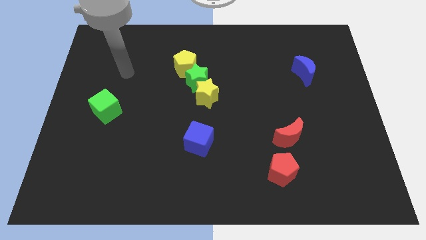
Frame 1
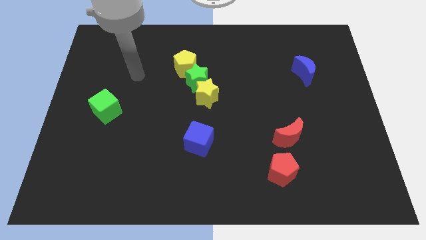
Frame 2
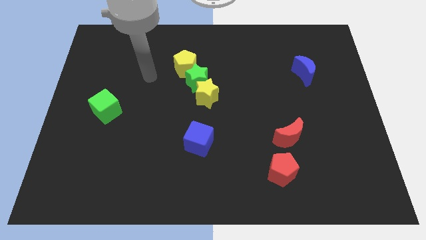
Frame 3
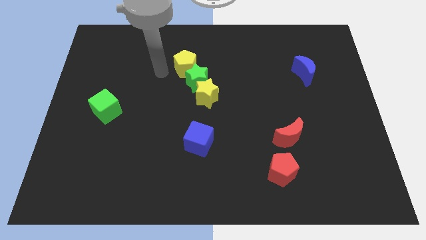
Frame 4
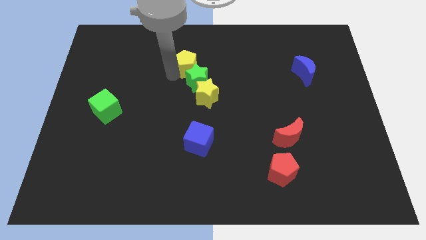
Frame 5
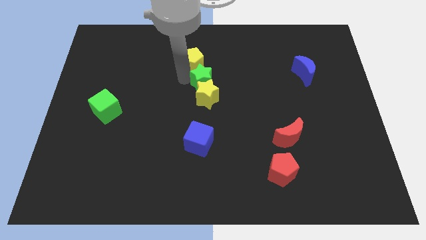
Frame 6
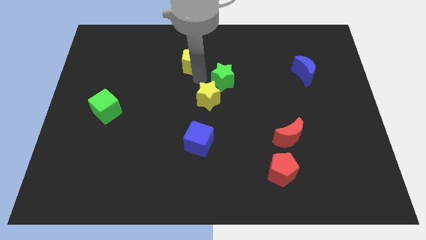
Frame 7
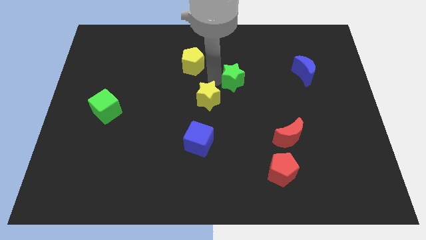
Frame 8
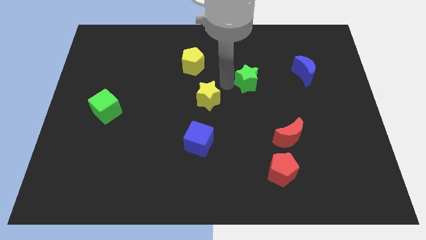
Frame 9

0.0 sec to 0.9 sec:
move the yellow star away from the green star

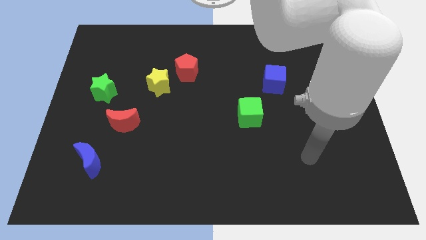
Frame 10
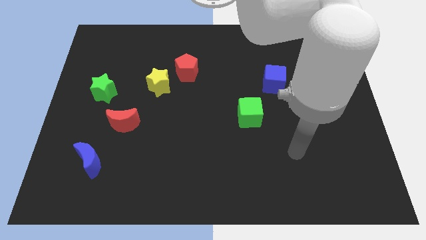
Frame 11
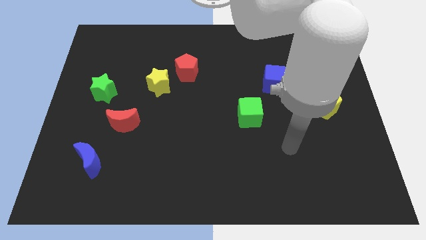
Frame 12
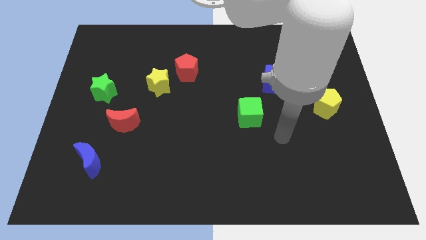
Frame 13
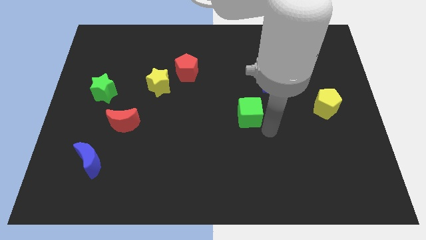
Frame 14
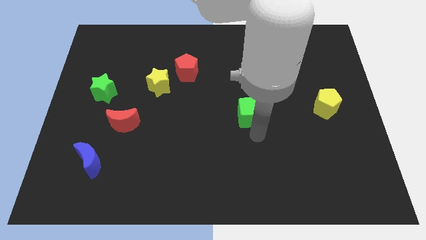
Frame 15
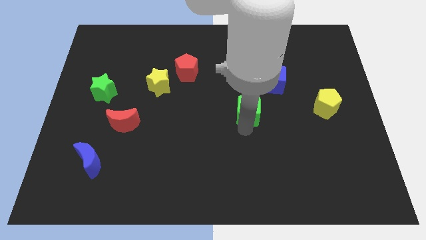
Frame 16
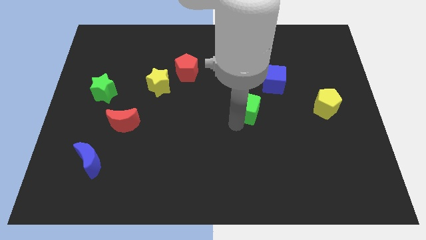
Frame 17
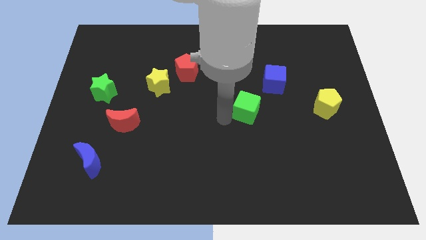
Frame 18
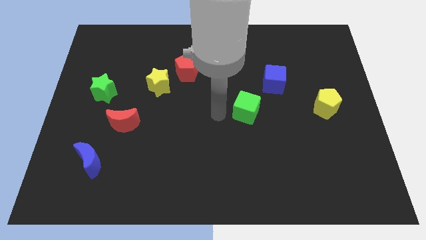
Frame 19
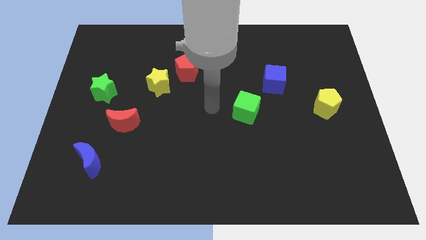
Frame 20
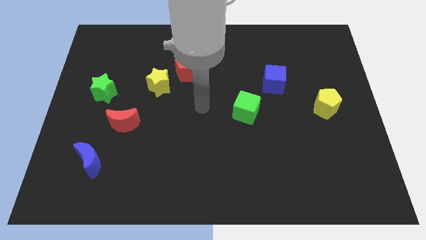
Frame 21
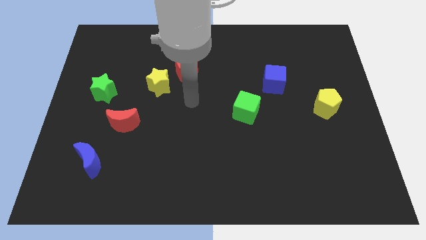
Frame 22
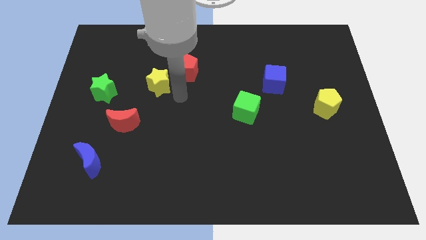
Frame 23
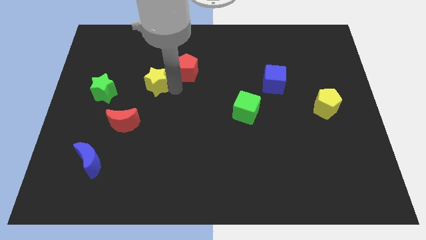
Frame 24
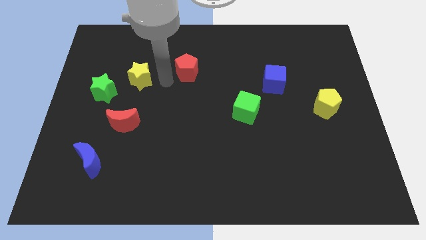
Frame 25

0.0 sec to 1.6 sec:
pull the red pentagon apart from the yellow star

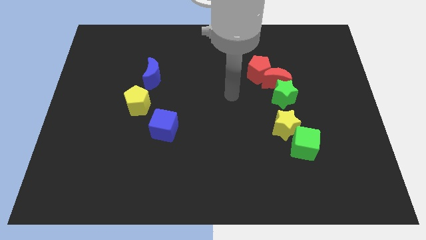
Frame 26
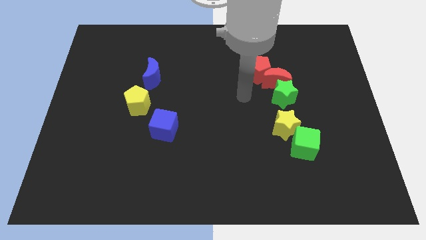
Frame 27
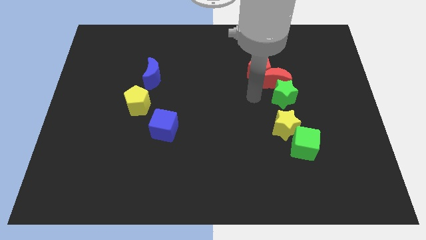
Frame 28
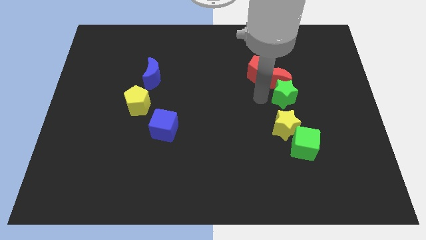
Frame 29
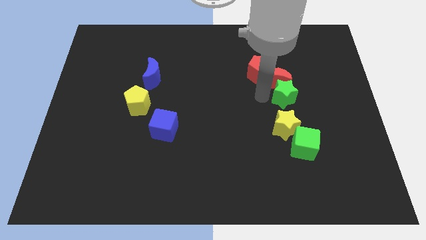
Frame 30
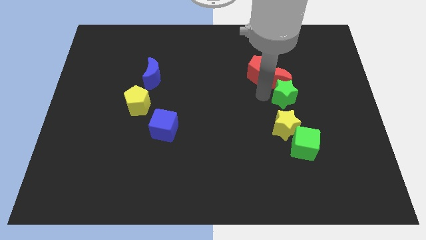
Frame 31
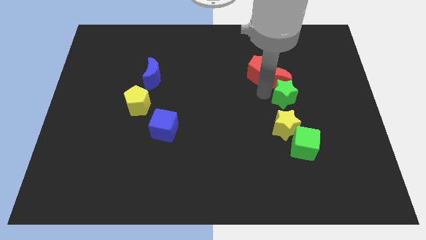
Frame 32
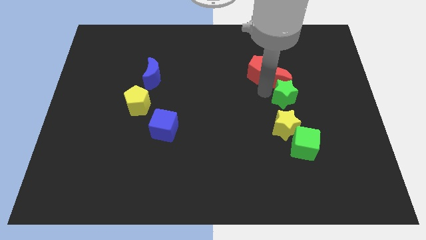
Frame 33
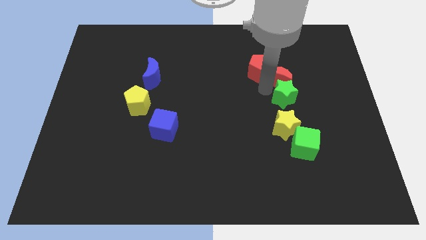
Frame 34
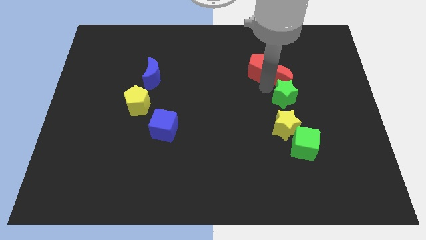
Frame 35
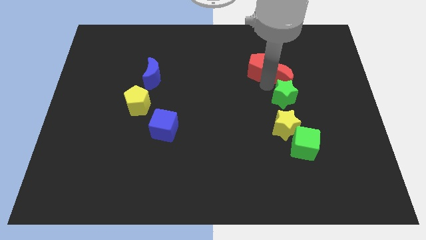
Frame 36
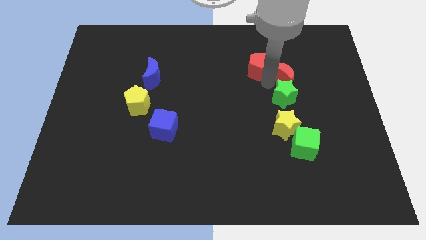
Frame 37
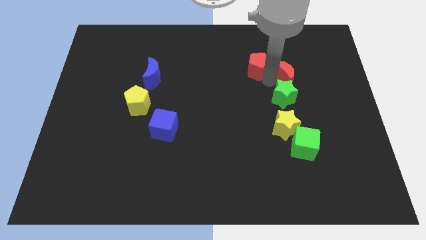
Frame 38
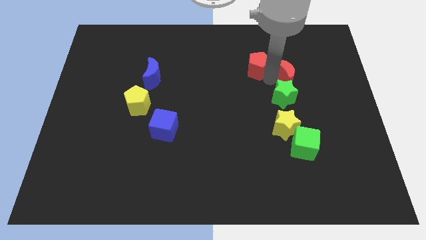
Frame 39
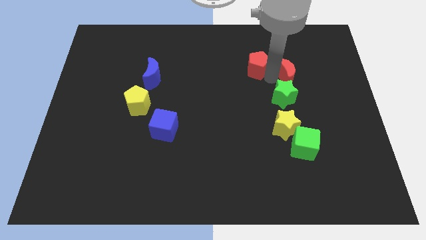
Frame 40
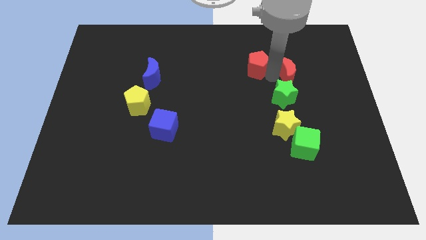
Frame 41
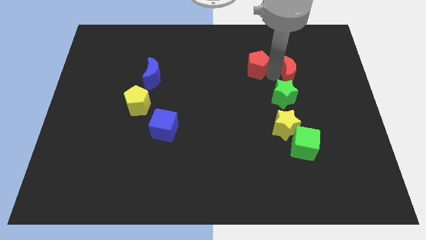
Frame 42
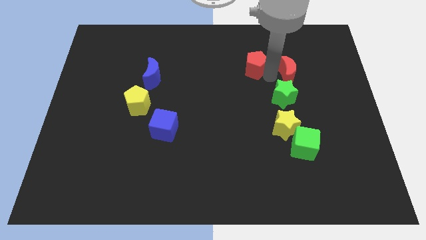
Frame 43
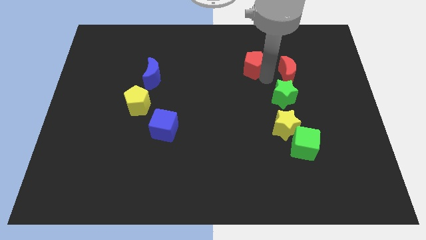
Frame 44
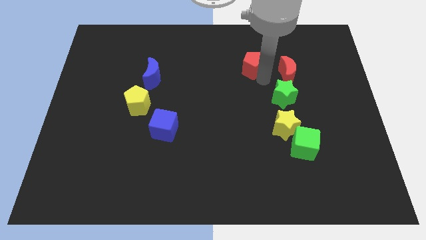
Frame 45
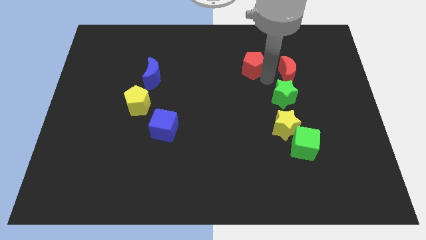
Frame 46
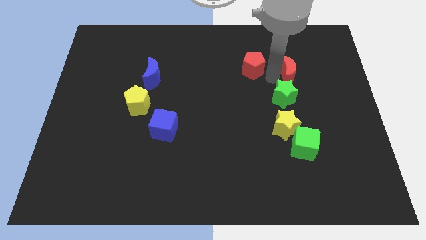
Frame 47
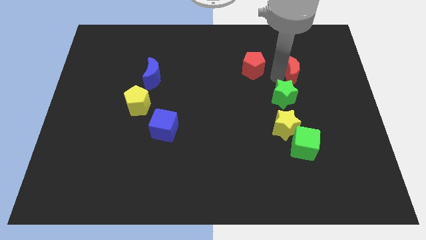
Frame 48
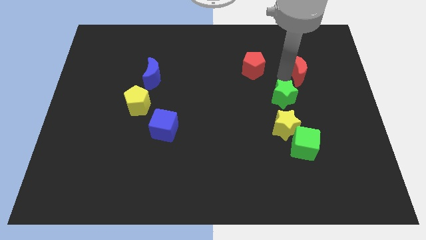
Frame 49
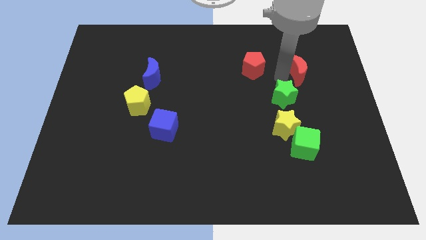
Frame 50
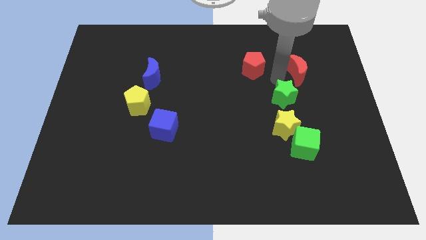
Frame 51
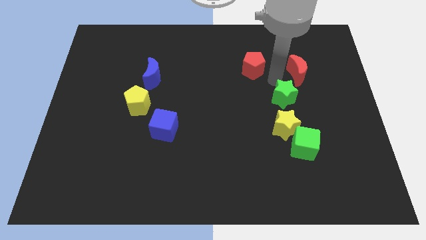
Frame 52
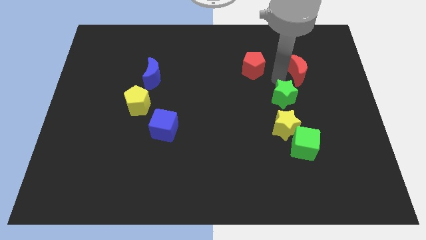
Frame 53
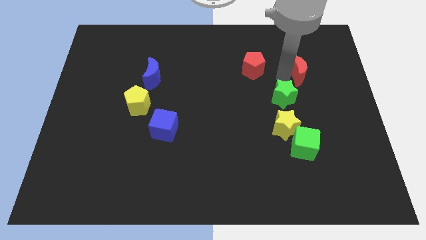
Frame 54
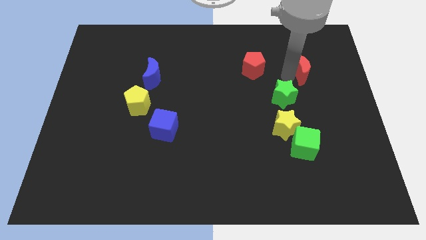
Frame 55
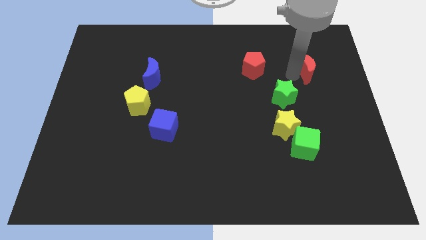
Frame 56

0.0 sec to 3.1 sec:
separate the red moon from the green star and red pentagon

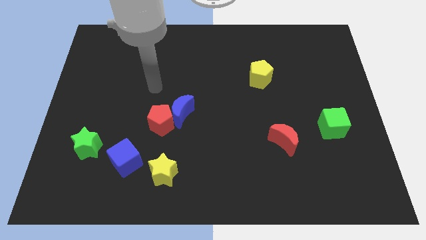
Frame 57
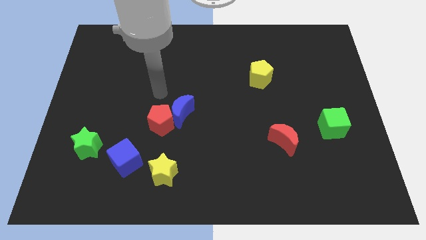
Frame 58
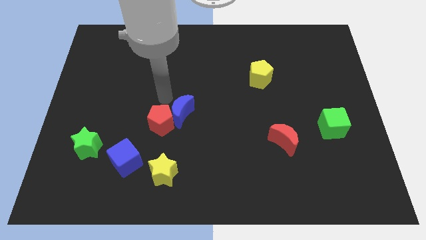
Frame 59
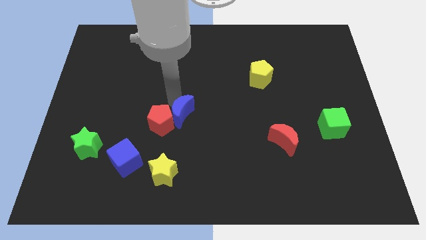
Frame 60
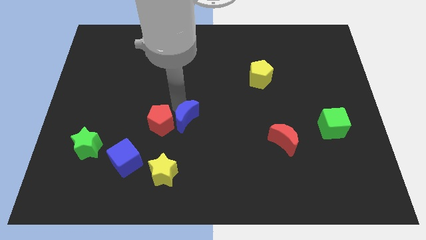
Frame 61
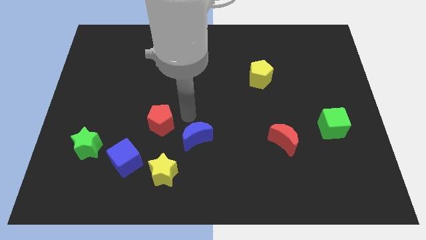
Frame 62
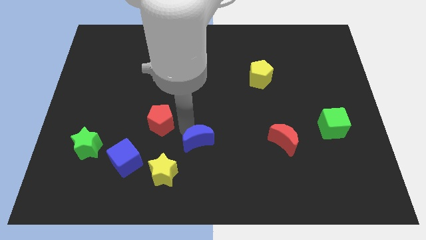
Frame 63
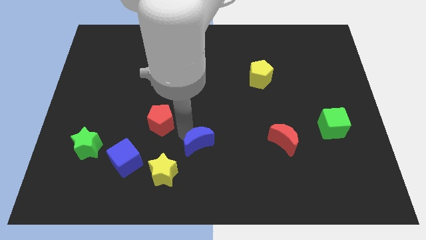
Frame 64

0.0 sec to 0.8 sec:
move the red pentagon away from the blue moon

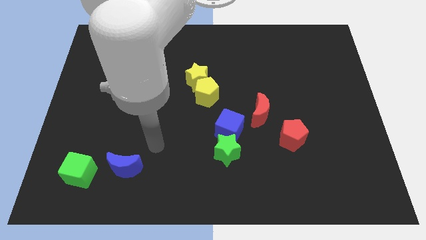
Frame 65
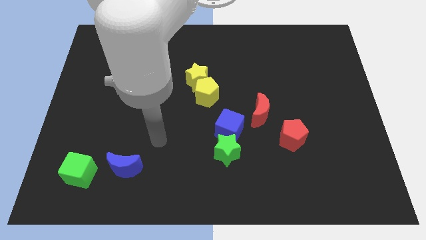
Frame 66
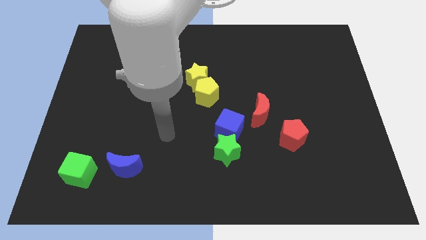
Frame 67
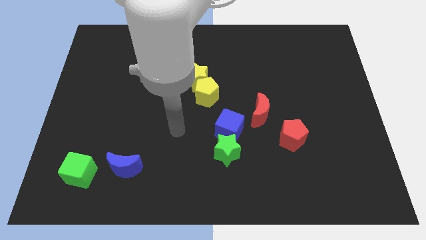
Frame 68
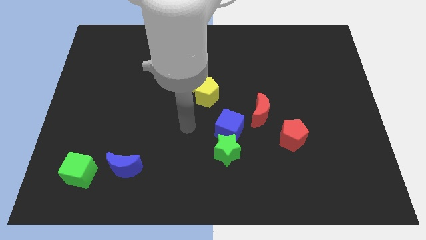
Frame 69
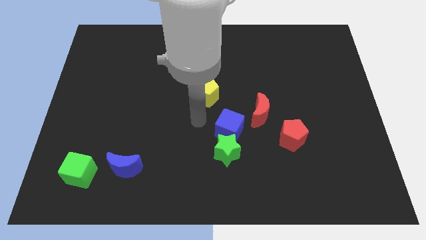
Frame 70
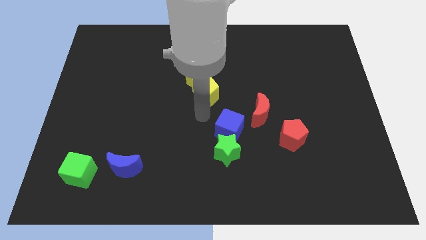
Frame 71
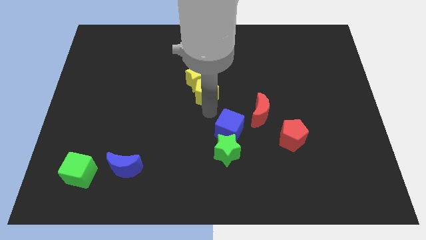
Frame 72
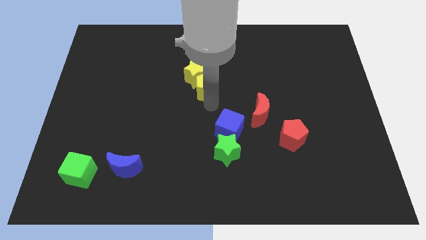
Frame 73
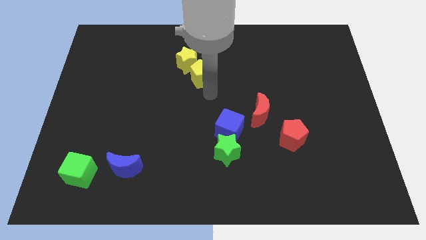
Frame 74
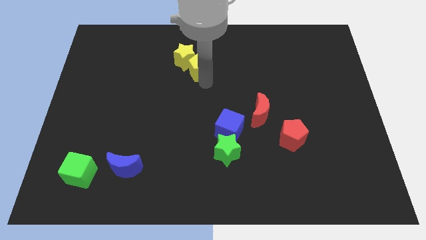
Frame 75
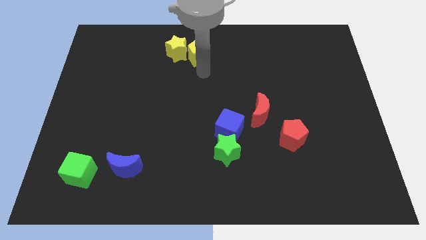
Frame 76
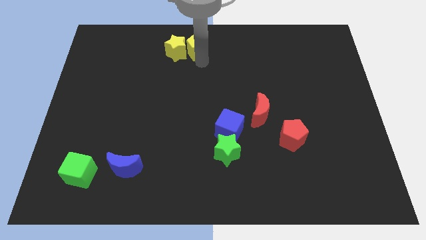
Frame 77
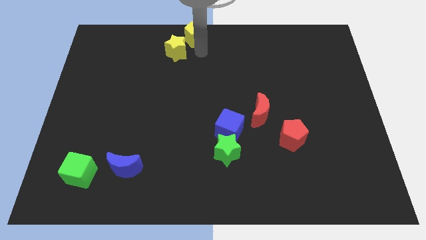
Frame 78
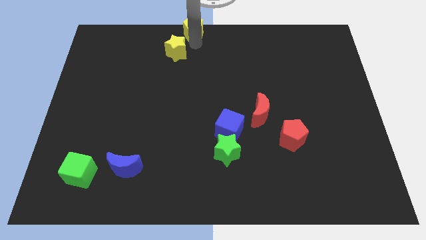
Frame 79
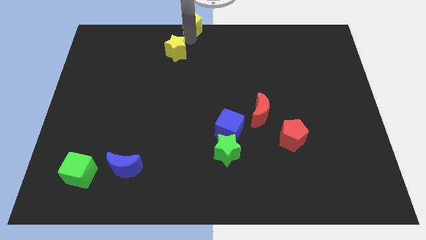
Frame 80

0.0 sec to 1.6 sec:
move the yellow star away from the yellow pentagon

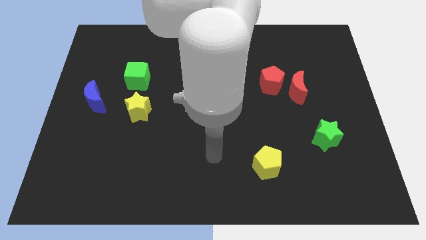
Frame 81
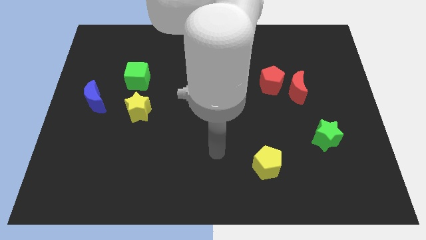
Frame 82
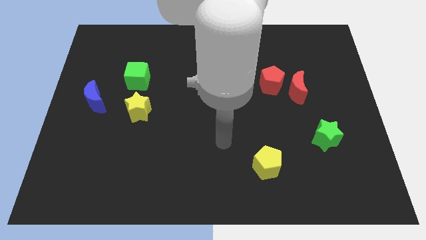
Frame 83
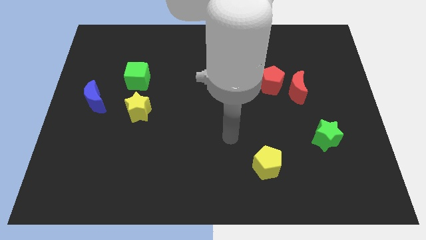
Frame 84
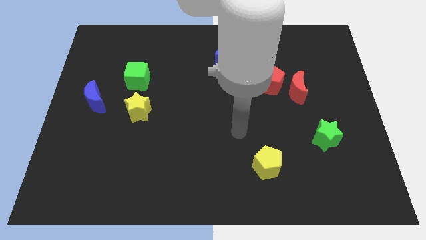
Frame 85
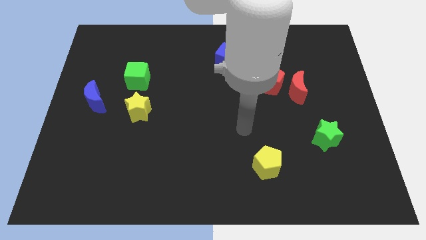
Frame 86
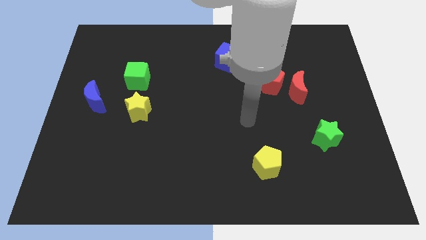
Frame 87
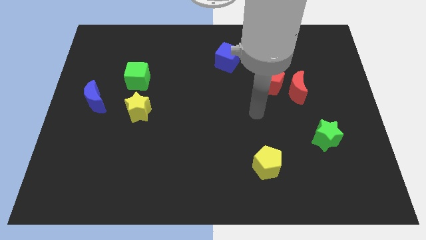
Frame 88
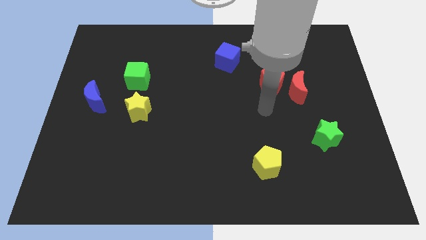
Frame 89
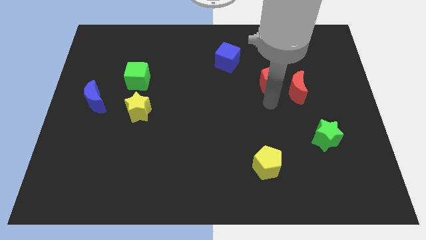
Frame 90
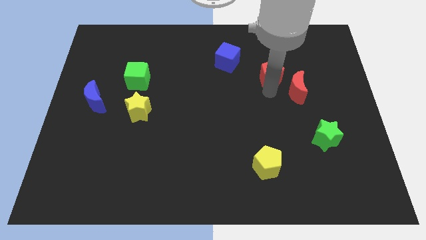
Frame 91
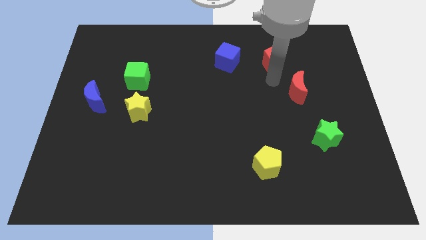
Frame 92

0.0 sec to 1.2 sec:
pull the red moon apart from the red pentagon
